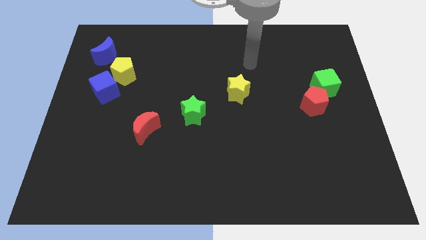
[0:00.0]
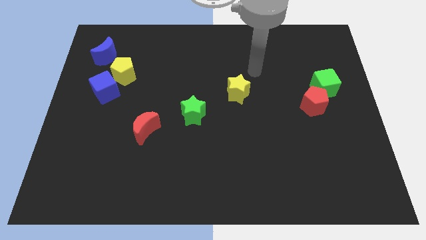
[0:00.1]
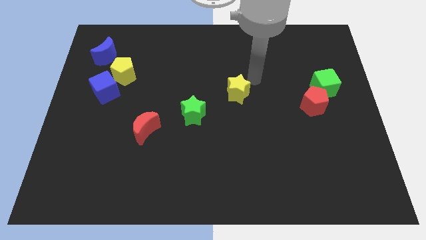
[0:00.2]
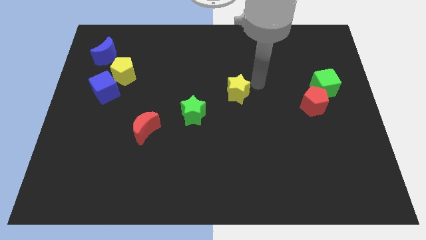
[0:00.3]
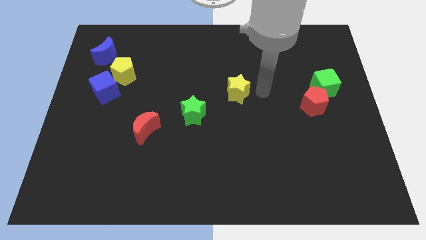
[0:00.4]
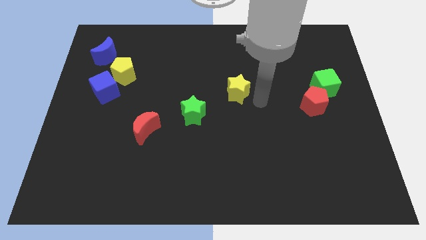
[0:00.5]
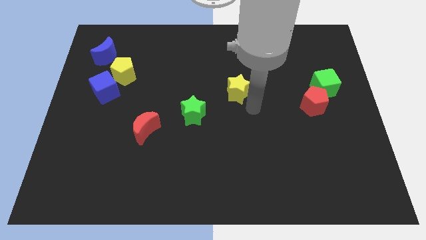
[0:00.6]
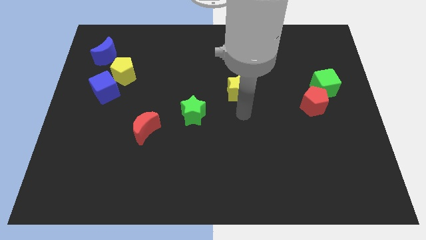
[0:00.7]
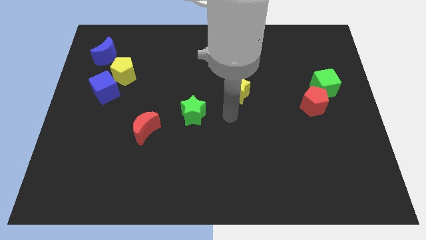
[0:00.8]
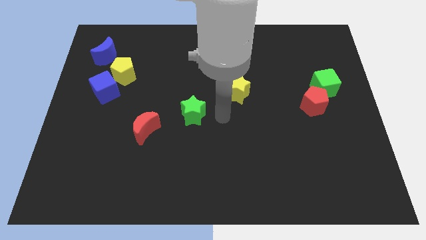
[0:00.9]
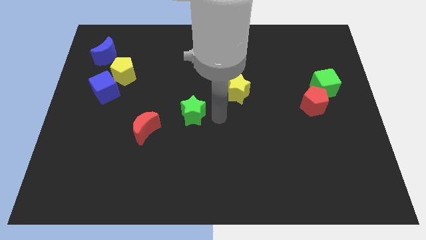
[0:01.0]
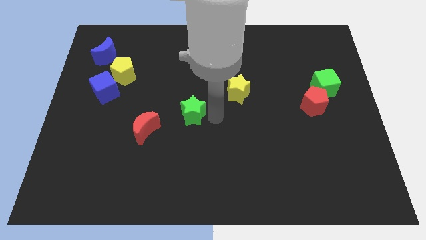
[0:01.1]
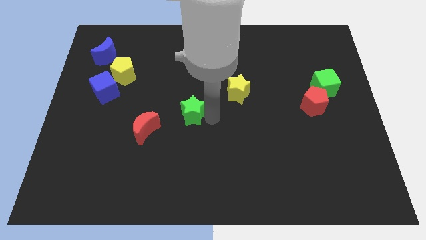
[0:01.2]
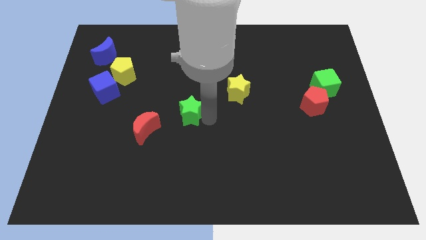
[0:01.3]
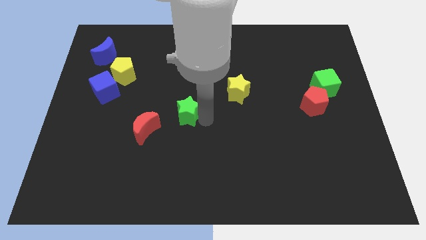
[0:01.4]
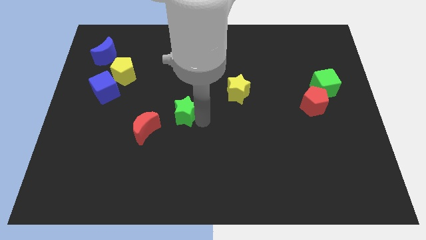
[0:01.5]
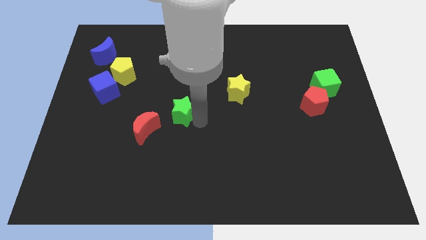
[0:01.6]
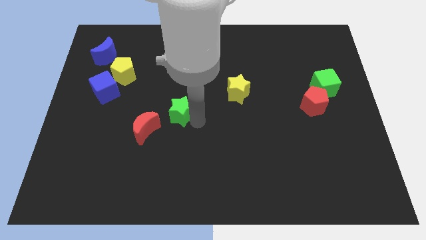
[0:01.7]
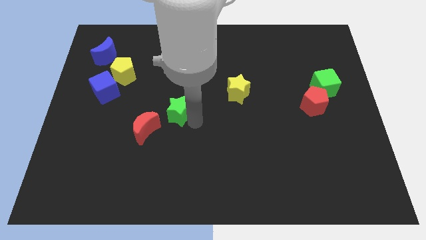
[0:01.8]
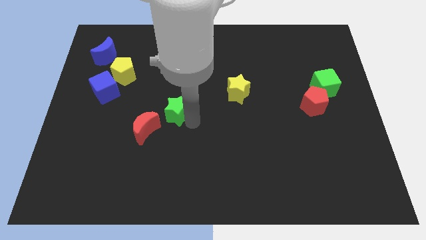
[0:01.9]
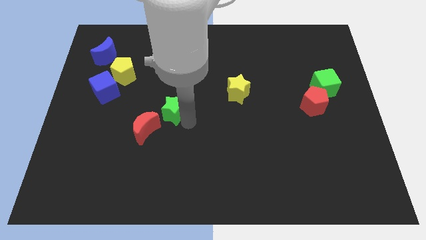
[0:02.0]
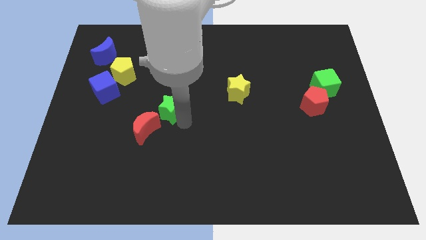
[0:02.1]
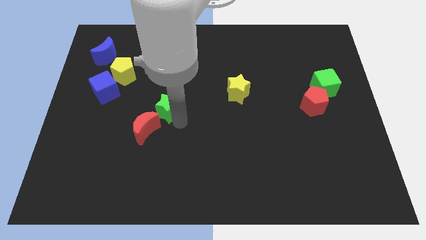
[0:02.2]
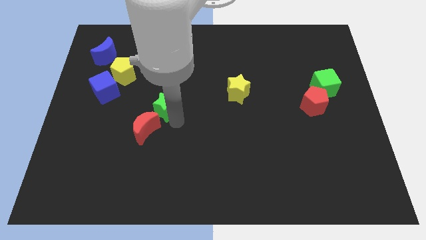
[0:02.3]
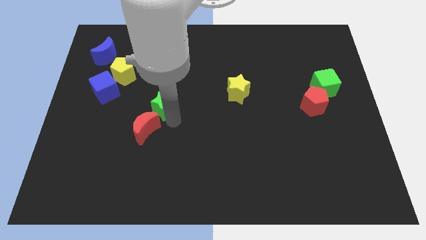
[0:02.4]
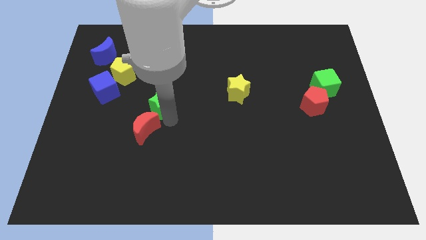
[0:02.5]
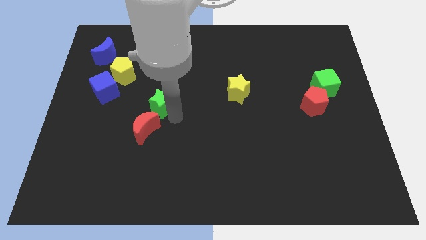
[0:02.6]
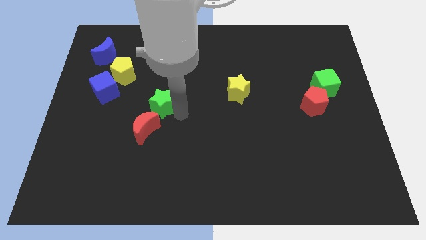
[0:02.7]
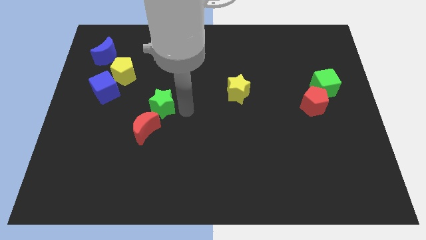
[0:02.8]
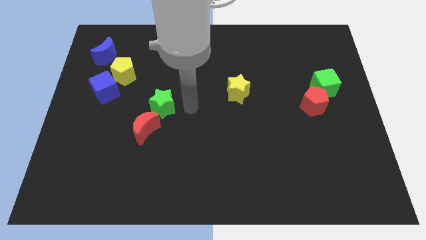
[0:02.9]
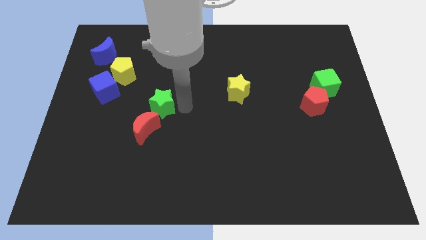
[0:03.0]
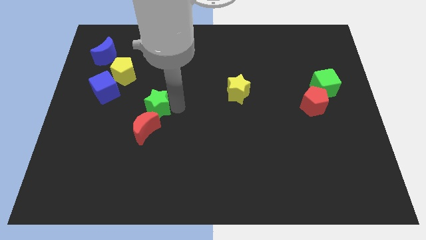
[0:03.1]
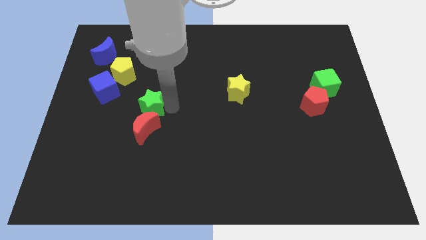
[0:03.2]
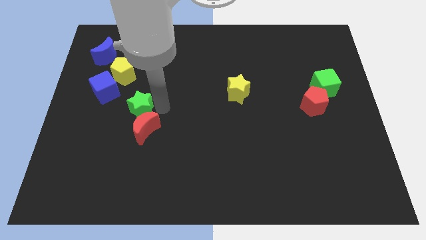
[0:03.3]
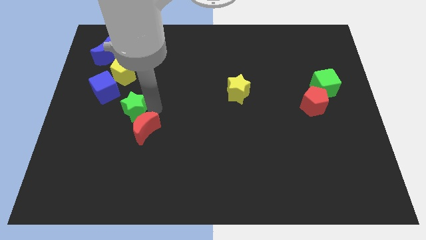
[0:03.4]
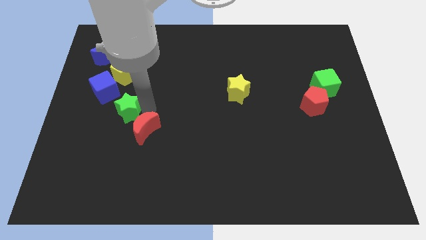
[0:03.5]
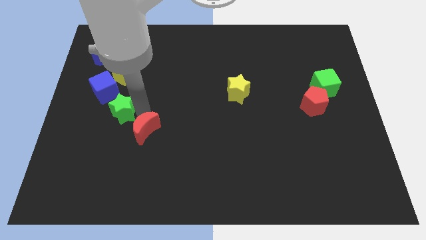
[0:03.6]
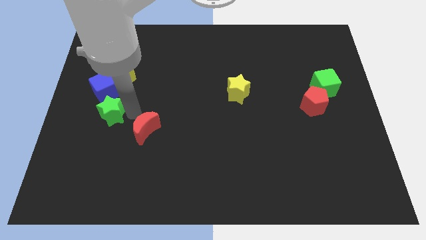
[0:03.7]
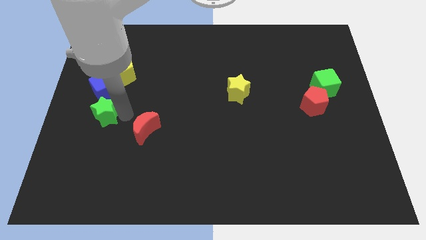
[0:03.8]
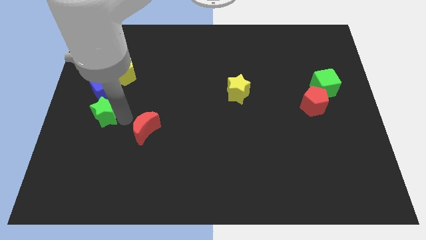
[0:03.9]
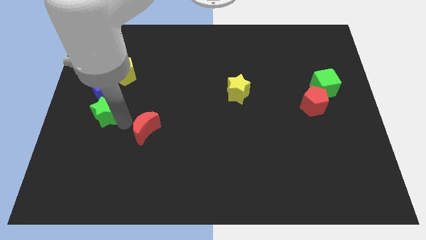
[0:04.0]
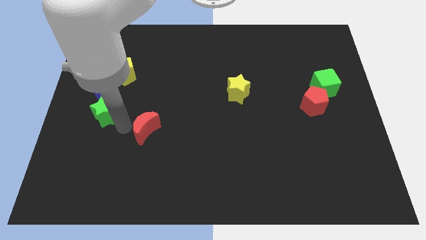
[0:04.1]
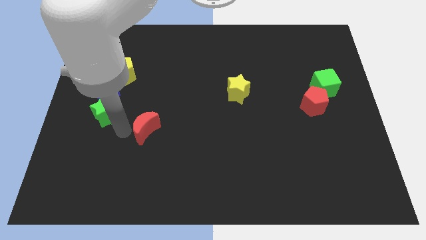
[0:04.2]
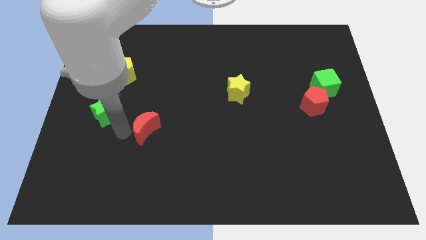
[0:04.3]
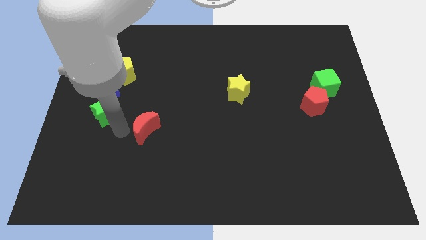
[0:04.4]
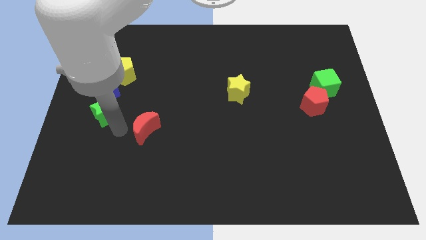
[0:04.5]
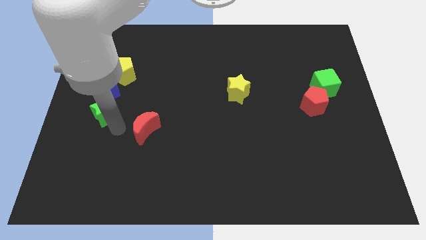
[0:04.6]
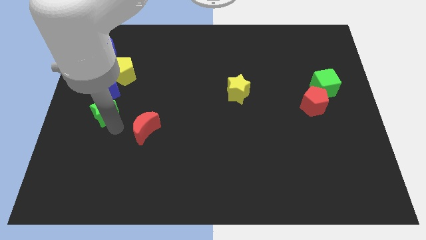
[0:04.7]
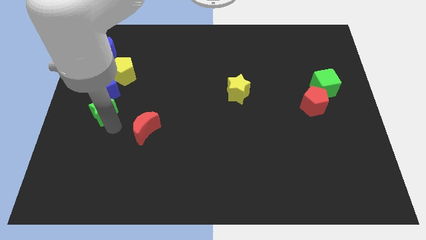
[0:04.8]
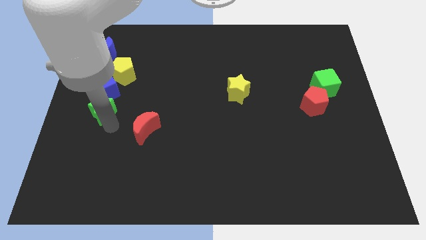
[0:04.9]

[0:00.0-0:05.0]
put the green star to the left side of the board

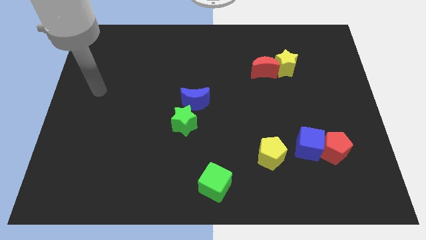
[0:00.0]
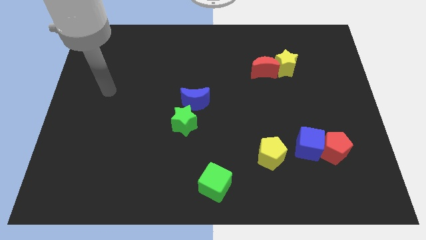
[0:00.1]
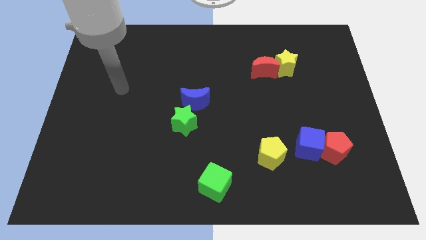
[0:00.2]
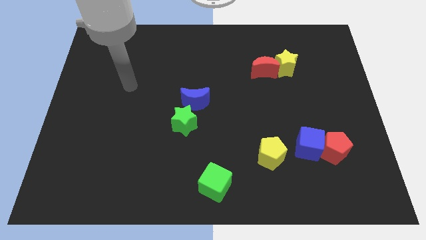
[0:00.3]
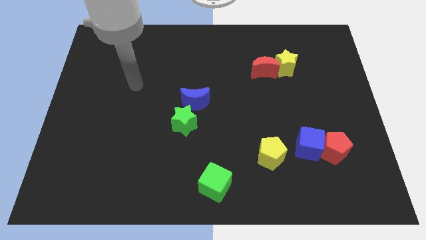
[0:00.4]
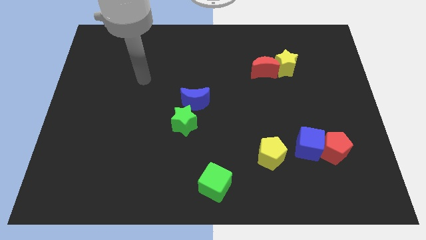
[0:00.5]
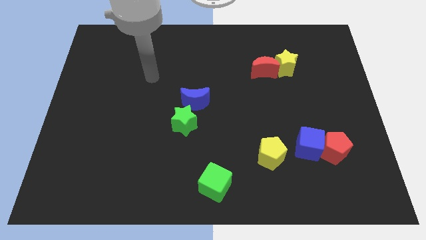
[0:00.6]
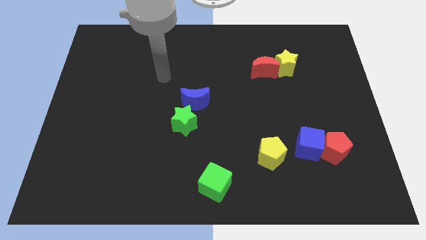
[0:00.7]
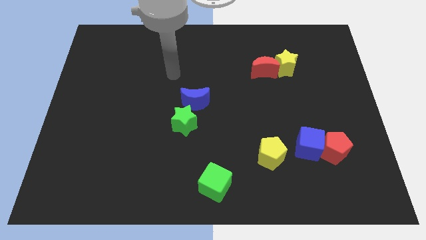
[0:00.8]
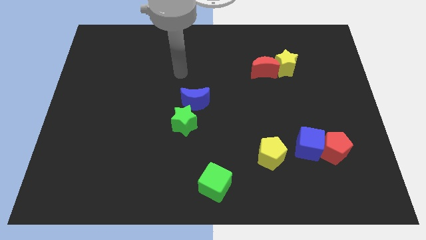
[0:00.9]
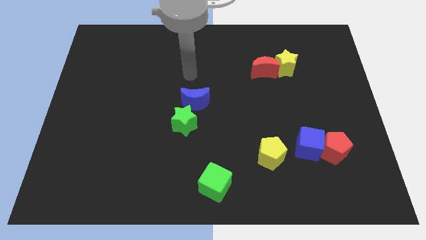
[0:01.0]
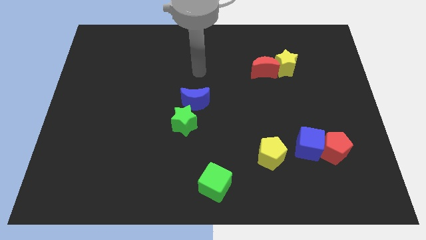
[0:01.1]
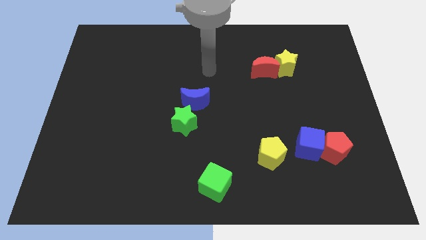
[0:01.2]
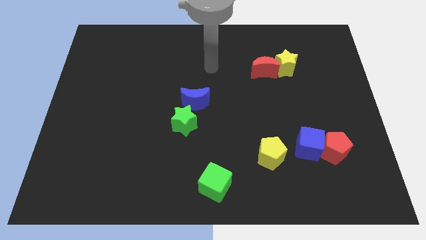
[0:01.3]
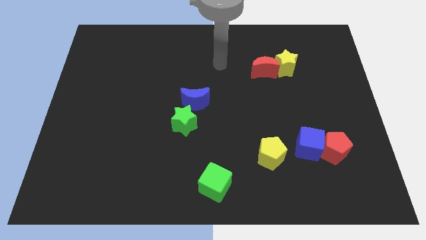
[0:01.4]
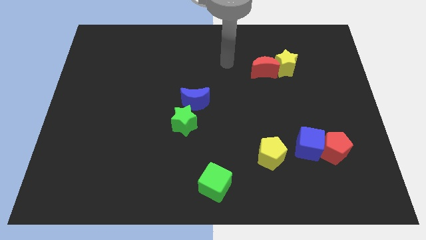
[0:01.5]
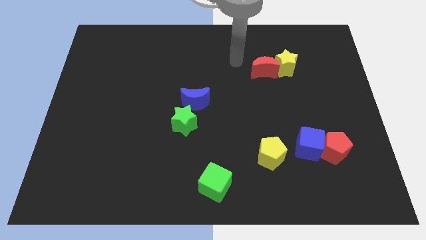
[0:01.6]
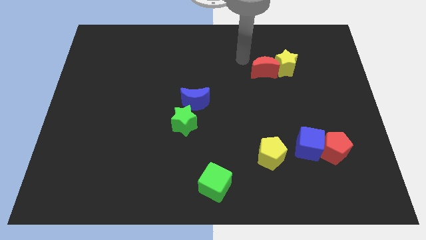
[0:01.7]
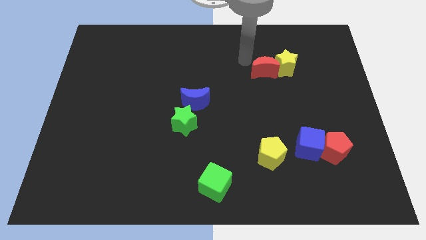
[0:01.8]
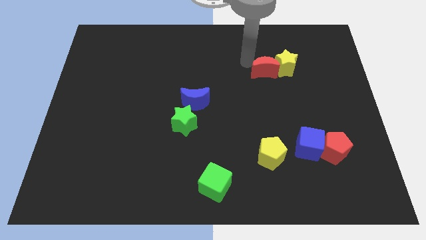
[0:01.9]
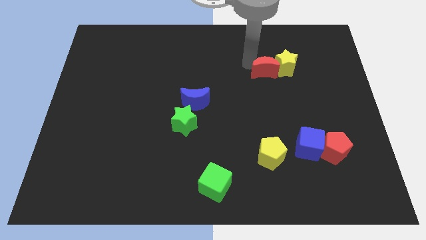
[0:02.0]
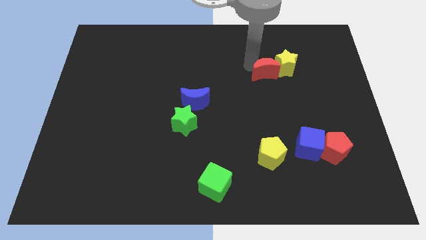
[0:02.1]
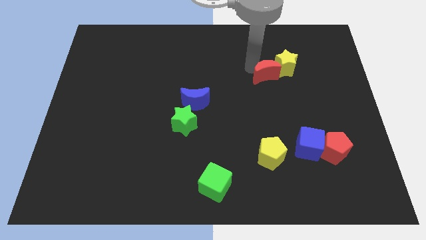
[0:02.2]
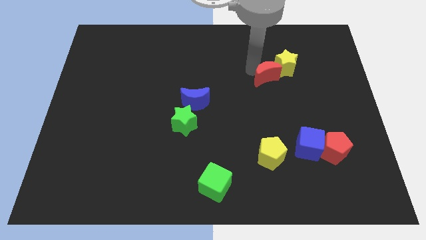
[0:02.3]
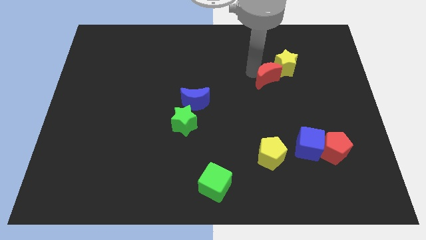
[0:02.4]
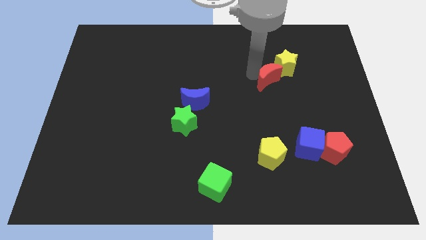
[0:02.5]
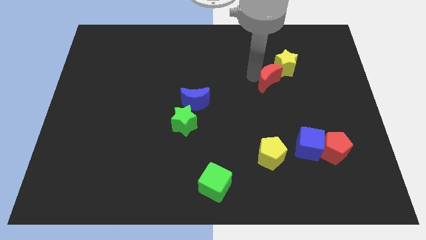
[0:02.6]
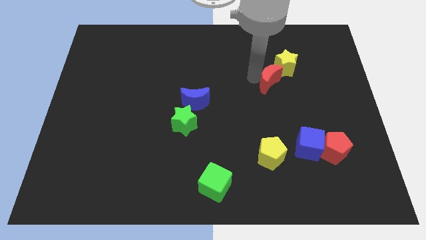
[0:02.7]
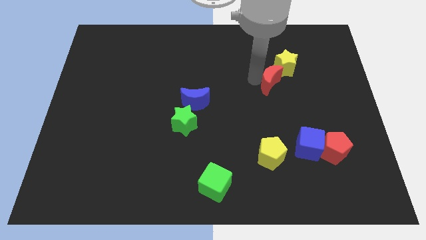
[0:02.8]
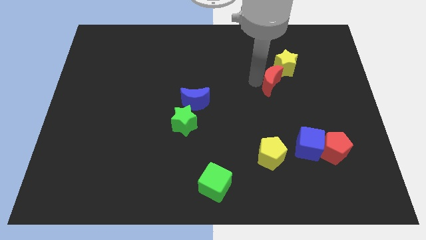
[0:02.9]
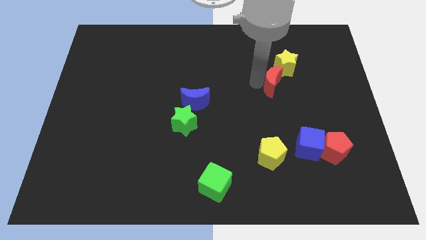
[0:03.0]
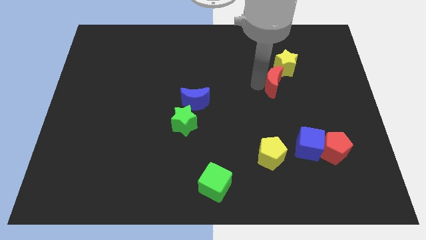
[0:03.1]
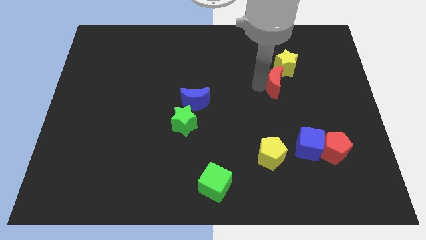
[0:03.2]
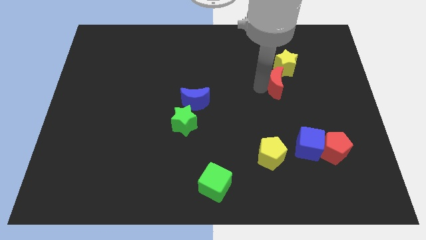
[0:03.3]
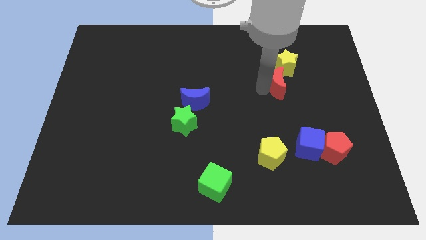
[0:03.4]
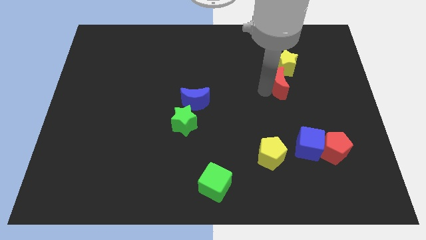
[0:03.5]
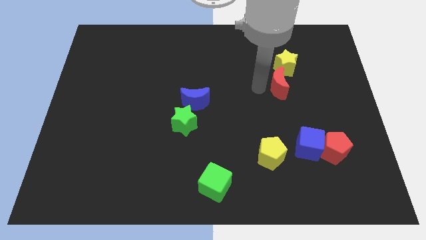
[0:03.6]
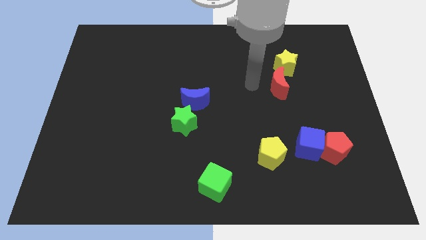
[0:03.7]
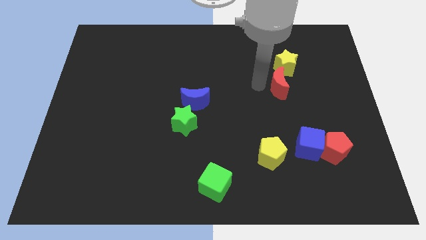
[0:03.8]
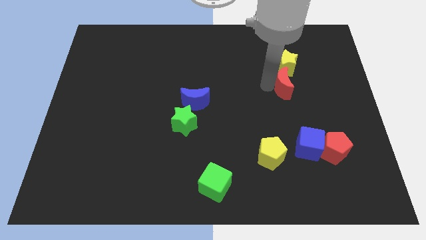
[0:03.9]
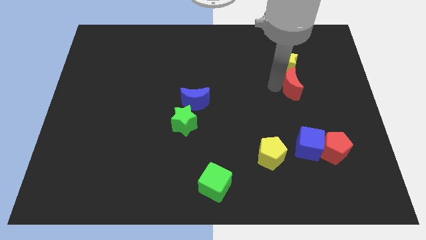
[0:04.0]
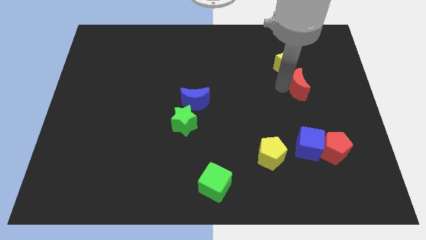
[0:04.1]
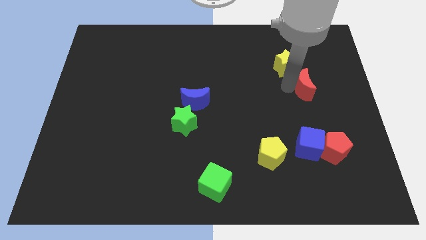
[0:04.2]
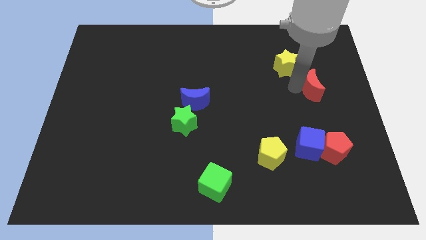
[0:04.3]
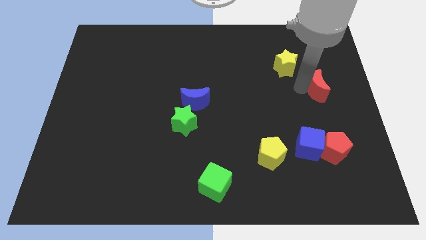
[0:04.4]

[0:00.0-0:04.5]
put the red moon to the right side of the board
